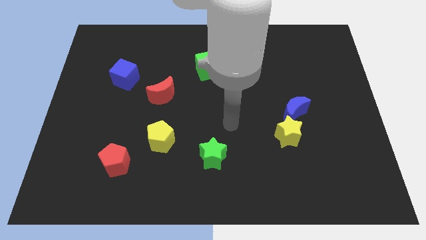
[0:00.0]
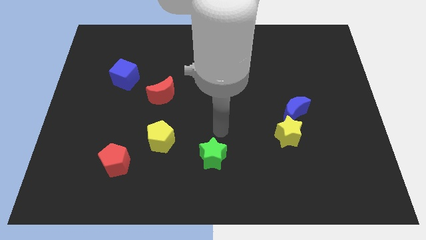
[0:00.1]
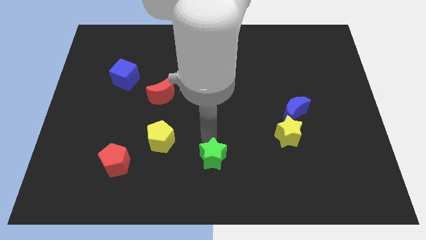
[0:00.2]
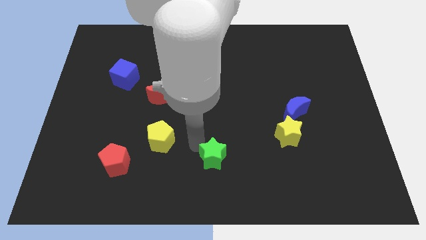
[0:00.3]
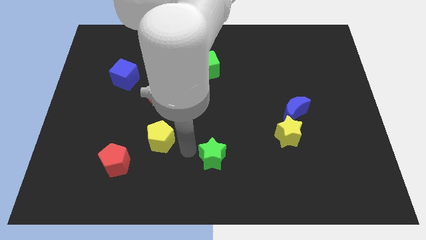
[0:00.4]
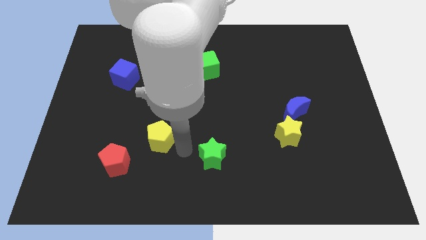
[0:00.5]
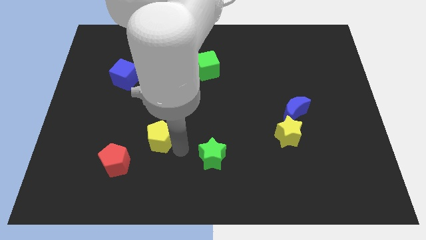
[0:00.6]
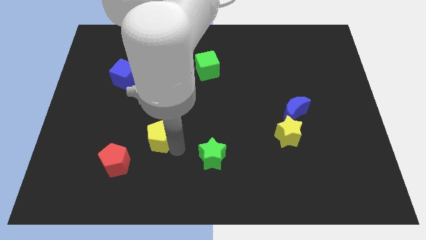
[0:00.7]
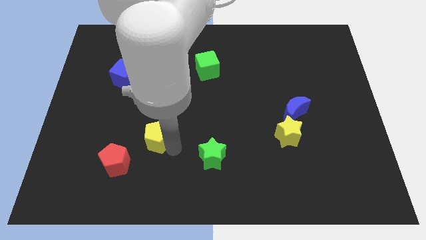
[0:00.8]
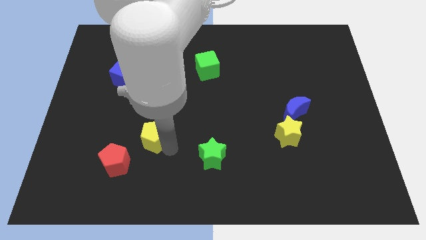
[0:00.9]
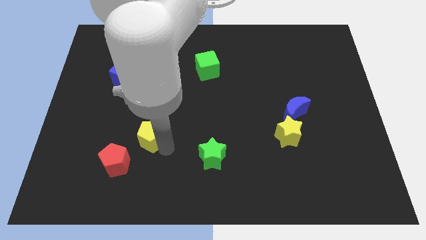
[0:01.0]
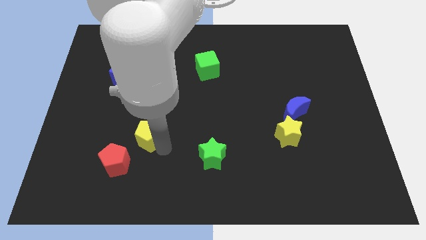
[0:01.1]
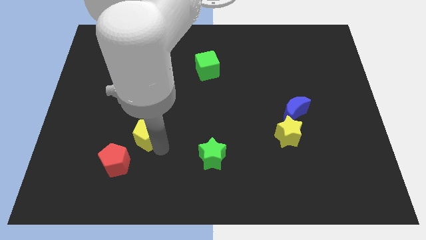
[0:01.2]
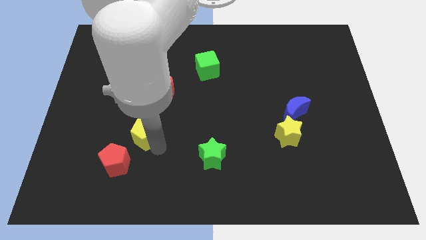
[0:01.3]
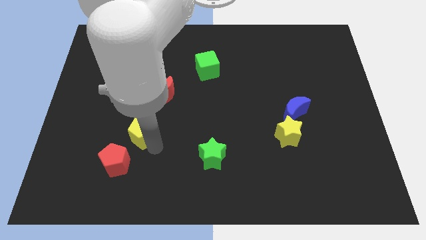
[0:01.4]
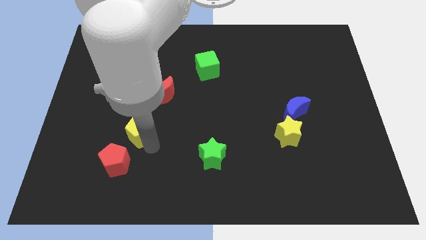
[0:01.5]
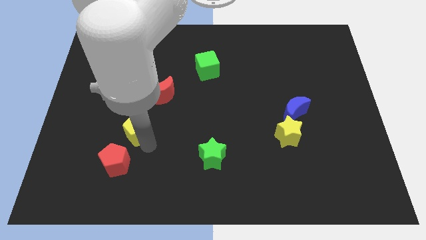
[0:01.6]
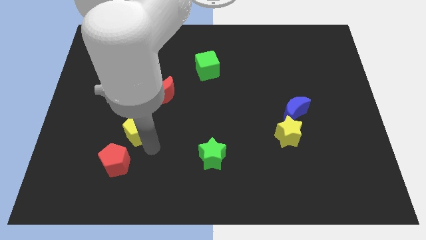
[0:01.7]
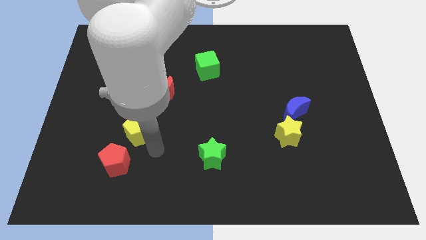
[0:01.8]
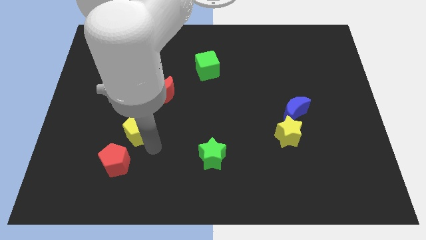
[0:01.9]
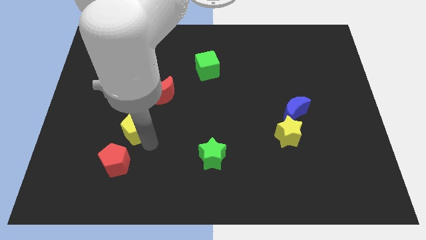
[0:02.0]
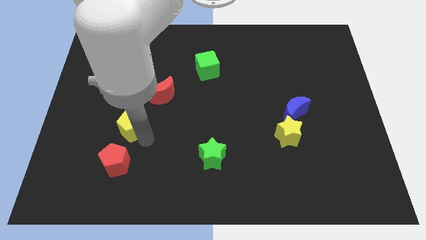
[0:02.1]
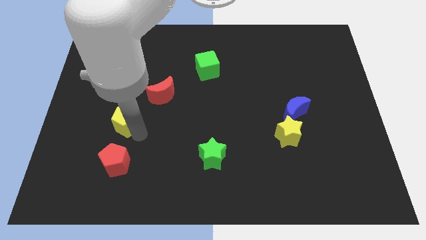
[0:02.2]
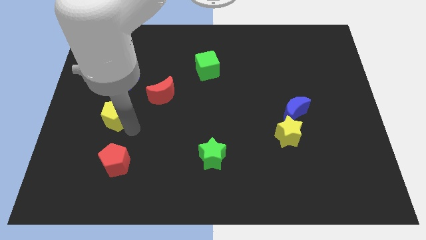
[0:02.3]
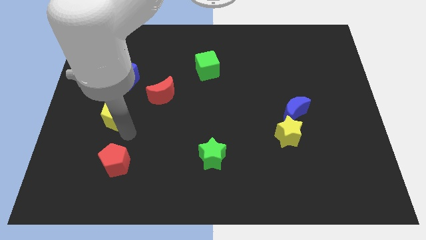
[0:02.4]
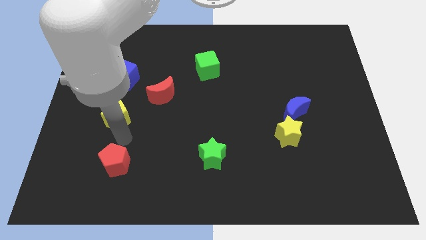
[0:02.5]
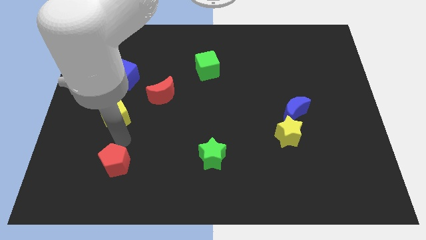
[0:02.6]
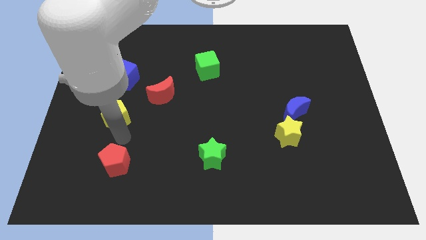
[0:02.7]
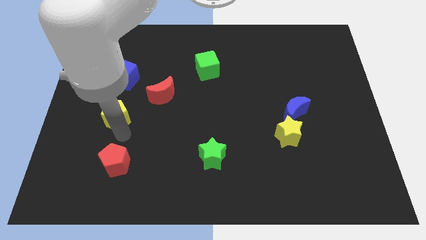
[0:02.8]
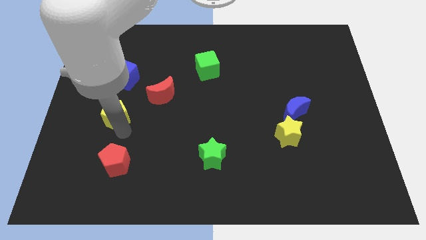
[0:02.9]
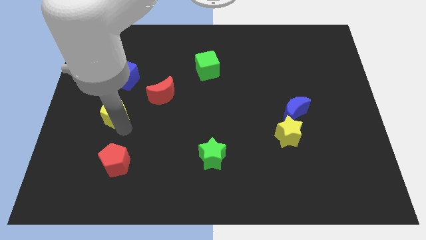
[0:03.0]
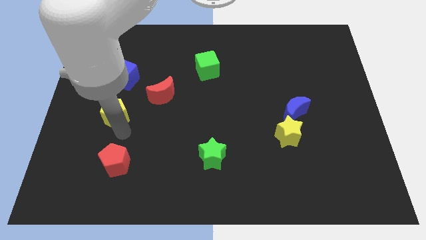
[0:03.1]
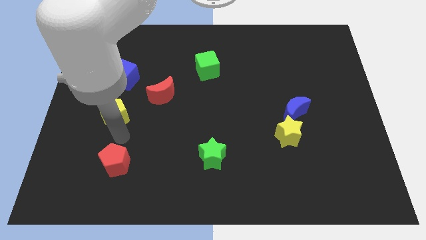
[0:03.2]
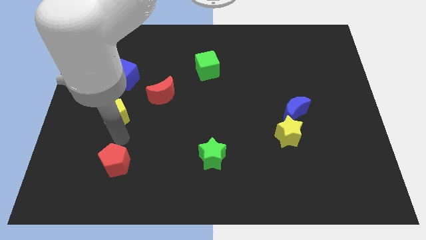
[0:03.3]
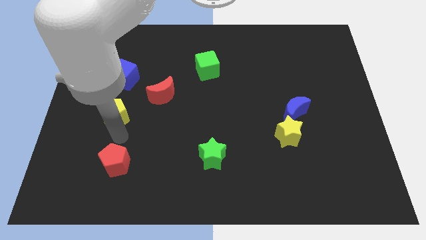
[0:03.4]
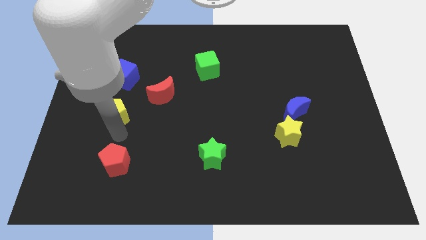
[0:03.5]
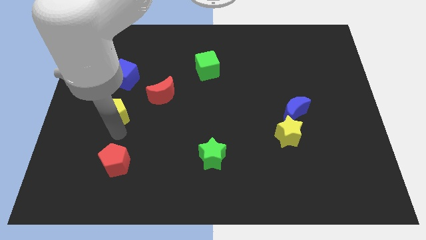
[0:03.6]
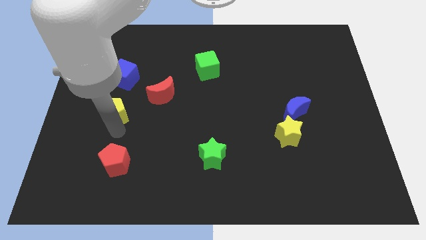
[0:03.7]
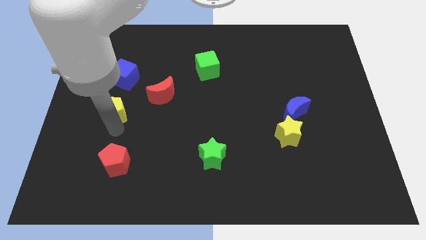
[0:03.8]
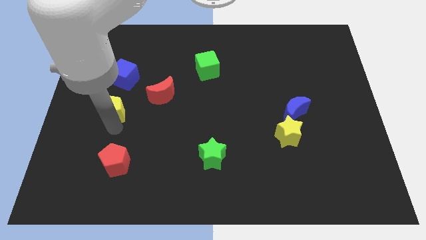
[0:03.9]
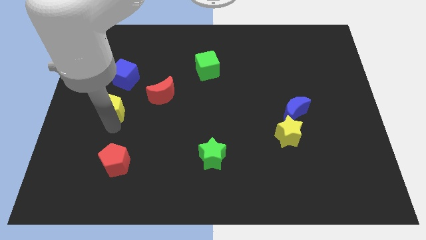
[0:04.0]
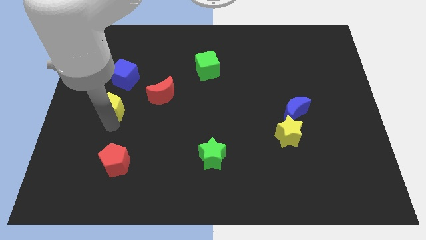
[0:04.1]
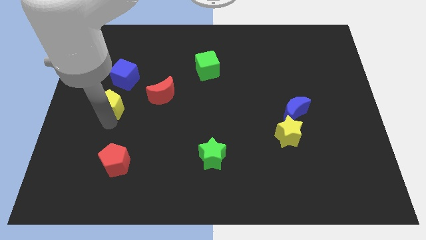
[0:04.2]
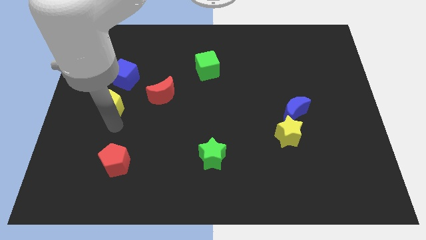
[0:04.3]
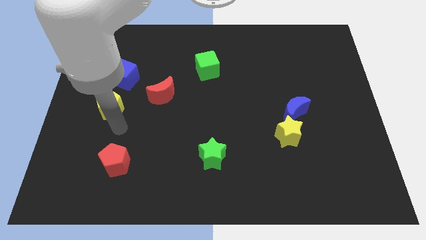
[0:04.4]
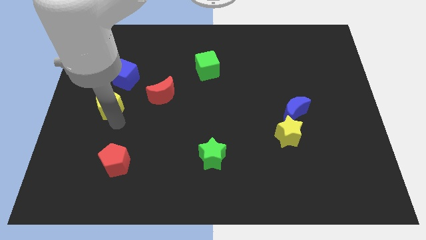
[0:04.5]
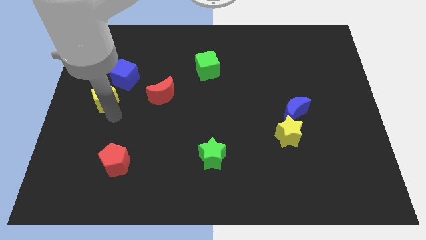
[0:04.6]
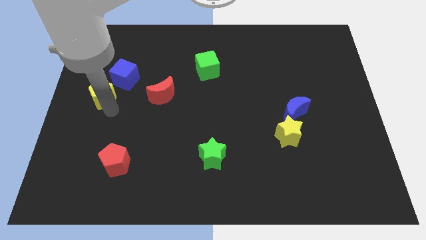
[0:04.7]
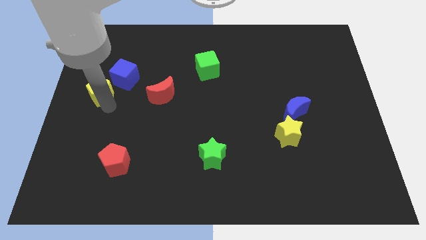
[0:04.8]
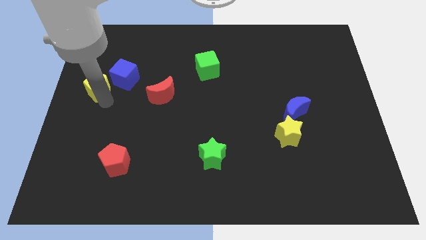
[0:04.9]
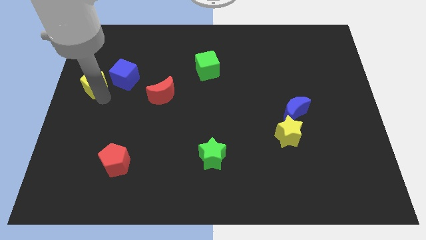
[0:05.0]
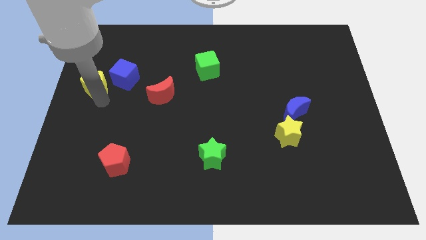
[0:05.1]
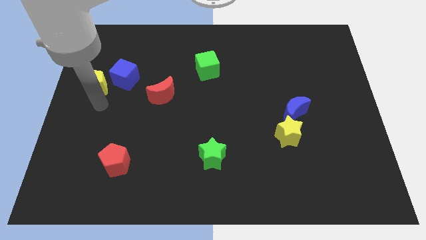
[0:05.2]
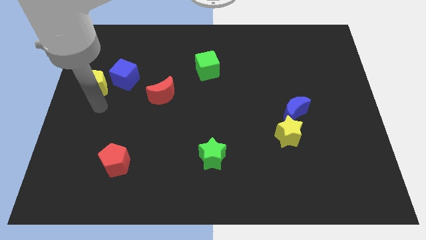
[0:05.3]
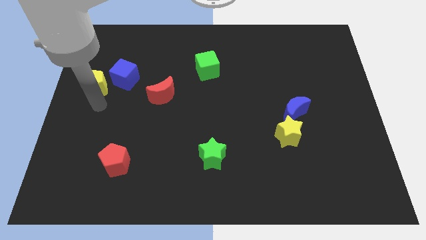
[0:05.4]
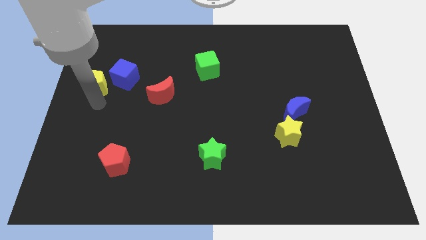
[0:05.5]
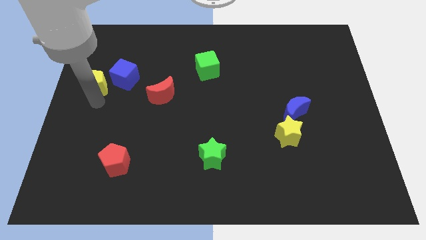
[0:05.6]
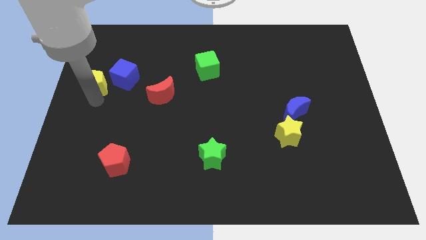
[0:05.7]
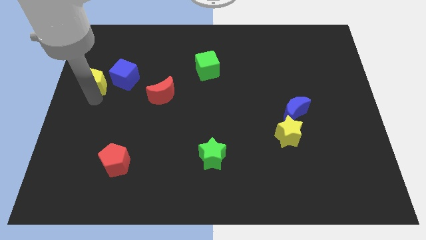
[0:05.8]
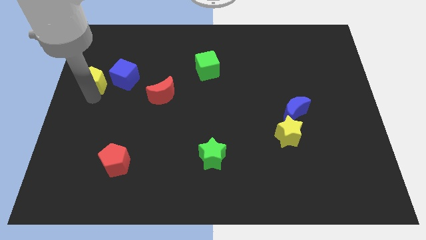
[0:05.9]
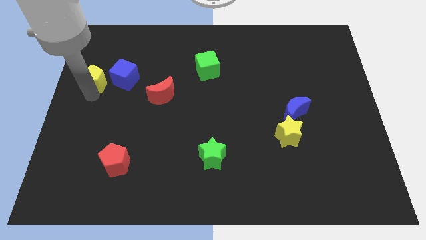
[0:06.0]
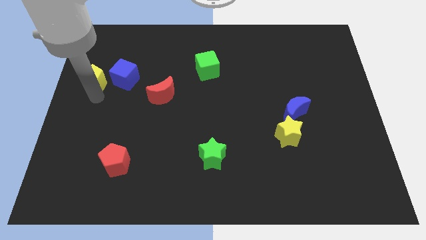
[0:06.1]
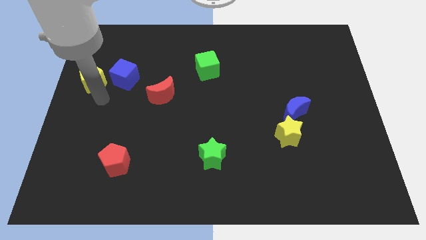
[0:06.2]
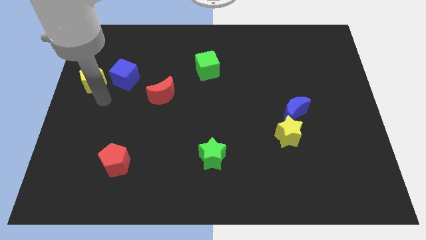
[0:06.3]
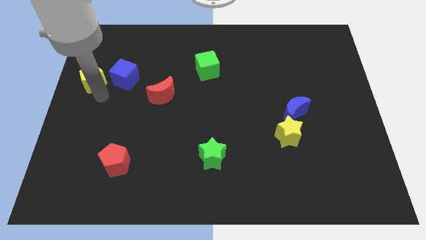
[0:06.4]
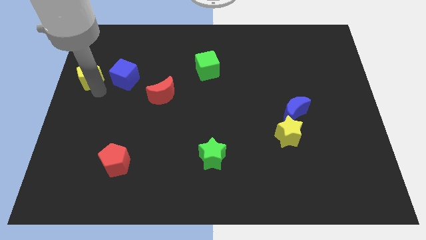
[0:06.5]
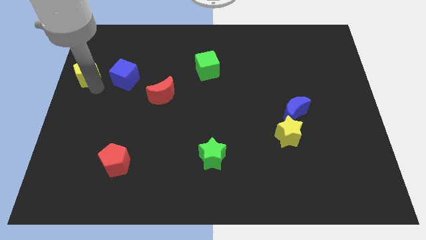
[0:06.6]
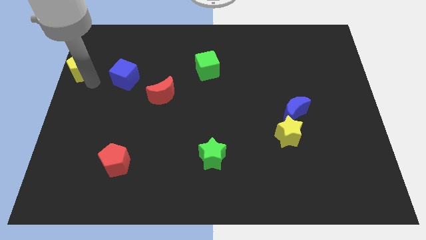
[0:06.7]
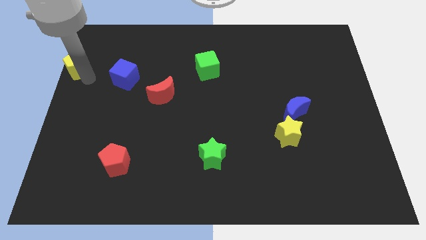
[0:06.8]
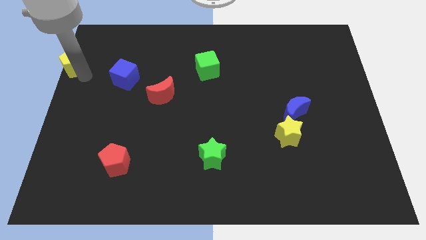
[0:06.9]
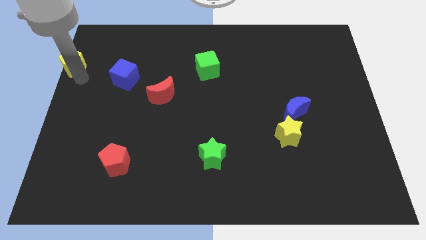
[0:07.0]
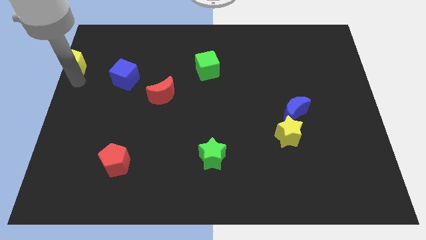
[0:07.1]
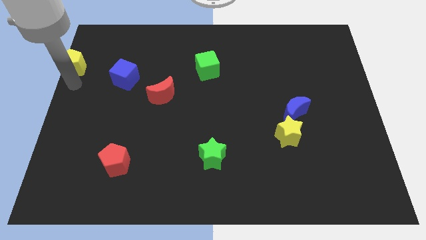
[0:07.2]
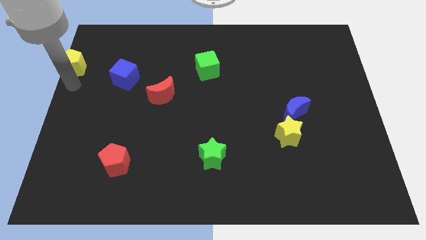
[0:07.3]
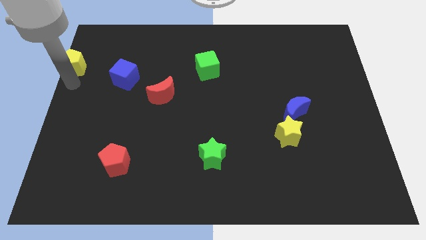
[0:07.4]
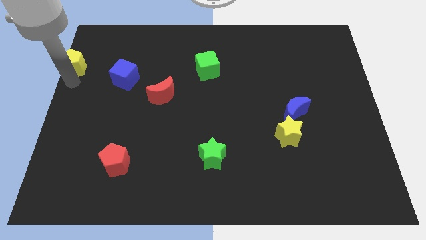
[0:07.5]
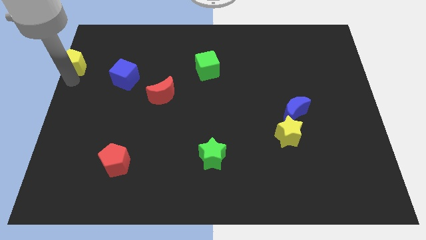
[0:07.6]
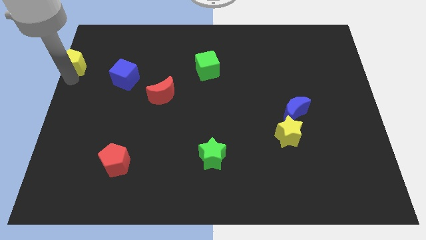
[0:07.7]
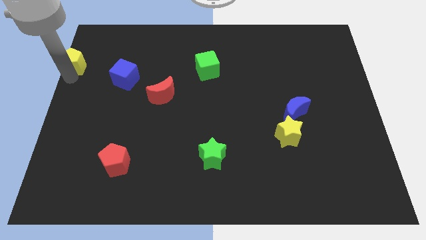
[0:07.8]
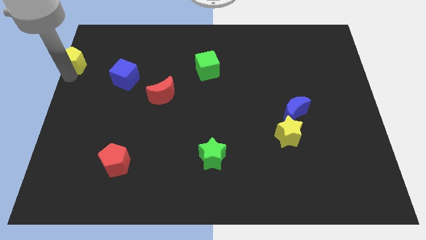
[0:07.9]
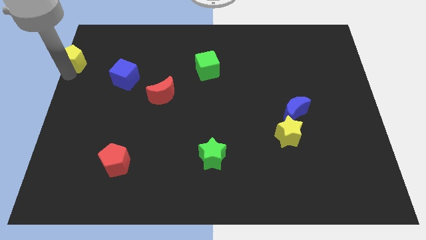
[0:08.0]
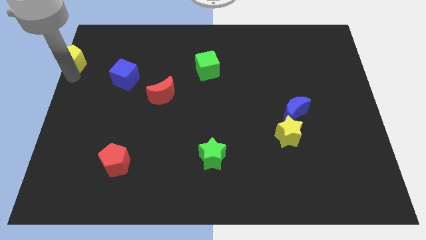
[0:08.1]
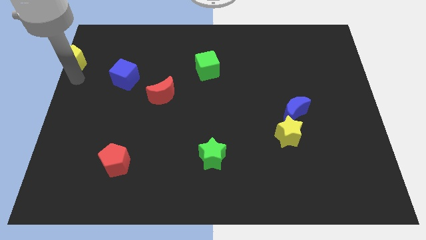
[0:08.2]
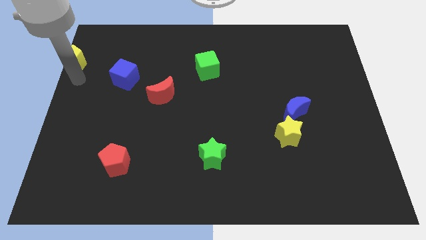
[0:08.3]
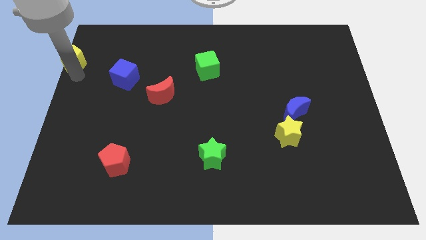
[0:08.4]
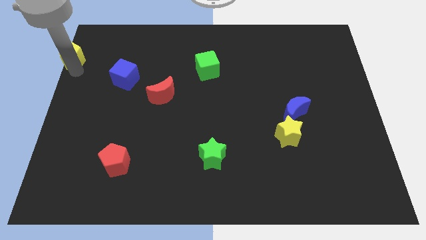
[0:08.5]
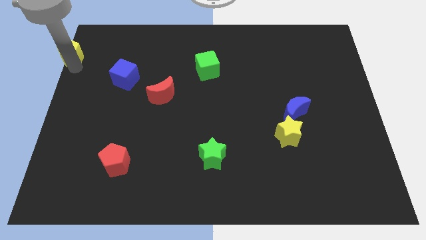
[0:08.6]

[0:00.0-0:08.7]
put the yellow pentagon to the top left of the board
